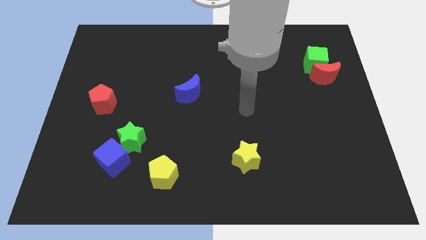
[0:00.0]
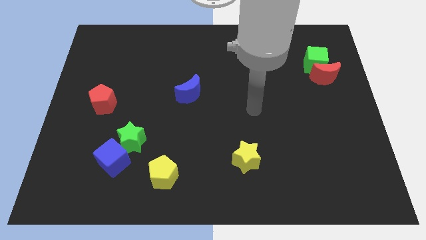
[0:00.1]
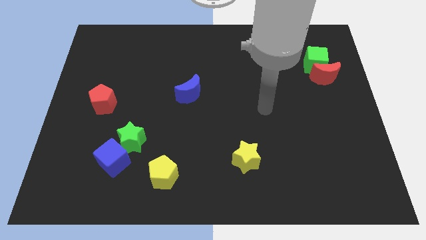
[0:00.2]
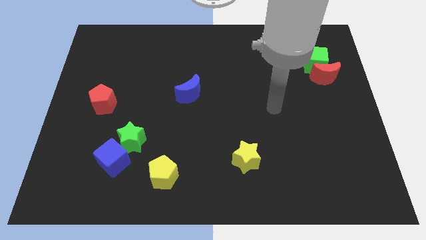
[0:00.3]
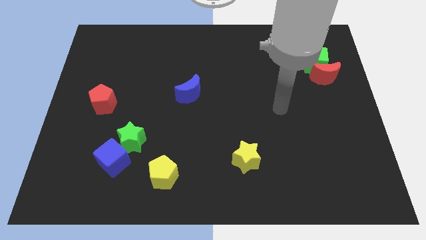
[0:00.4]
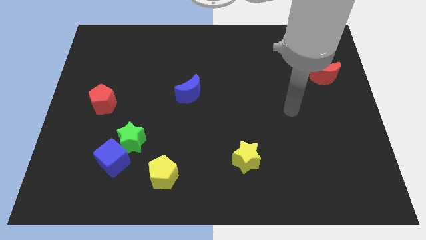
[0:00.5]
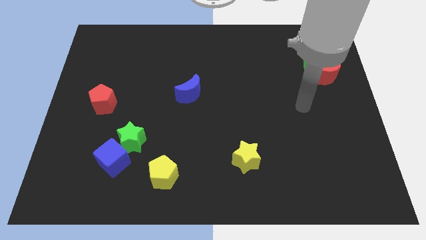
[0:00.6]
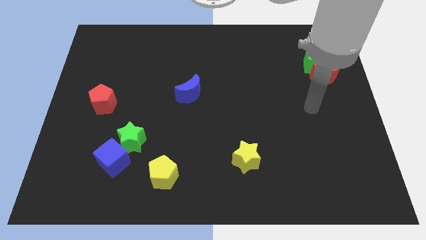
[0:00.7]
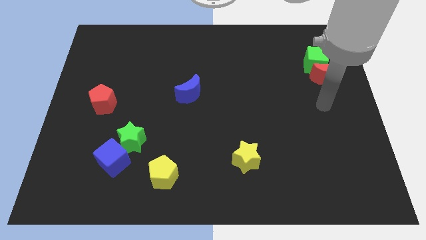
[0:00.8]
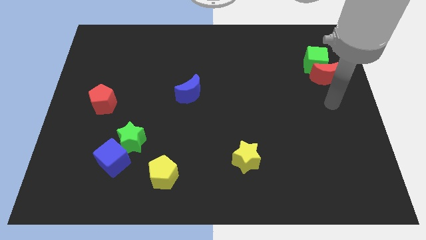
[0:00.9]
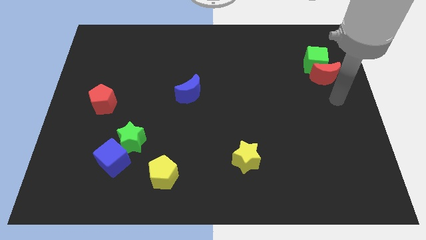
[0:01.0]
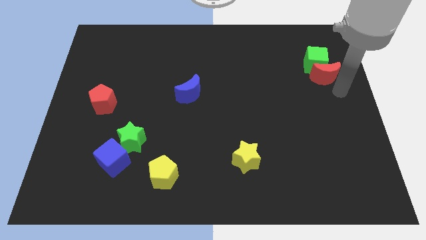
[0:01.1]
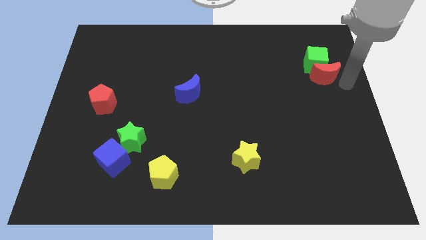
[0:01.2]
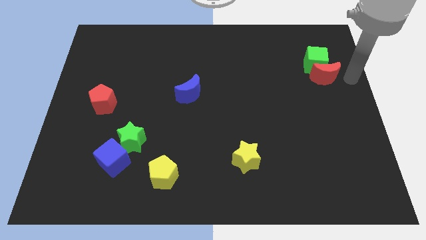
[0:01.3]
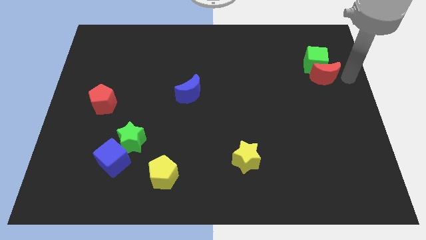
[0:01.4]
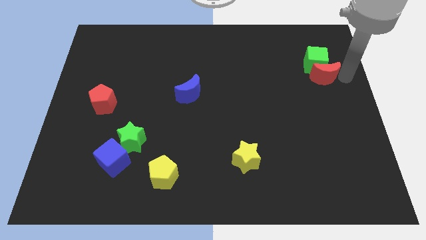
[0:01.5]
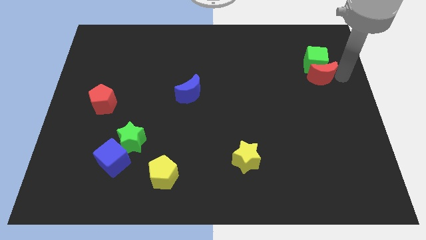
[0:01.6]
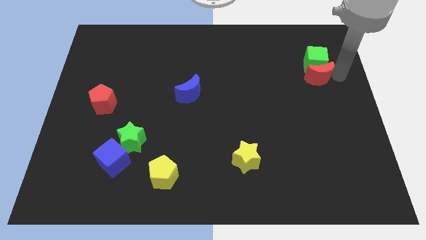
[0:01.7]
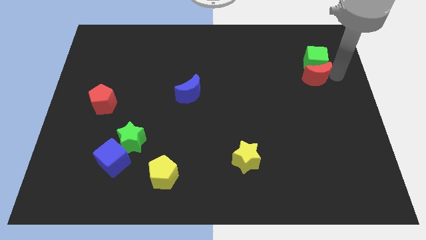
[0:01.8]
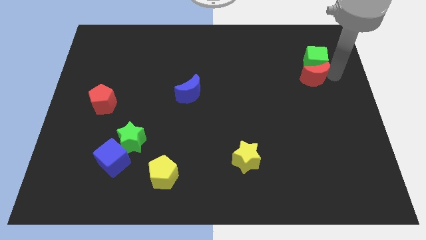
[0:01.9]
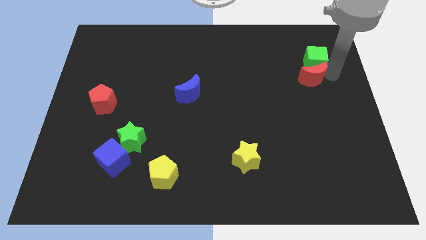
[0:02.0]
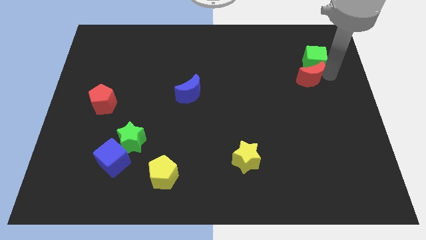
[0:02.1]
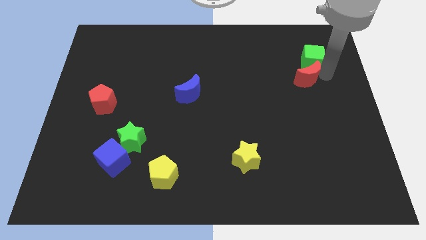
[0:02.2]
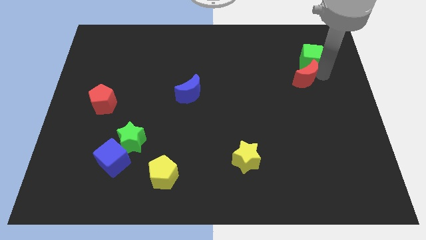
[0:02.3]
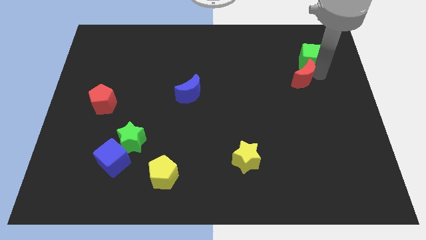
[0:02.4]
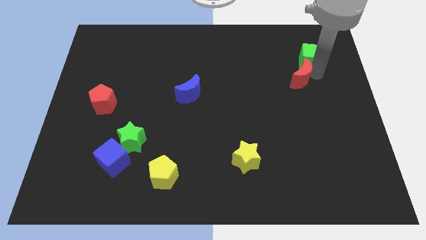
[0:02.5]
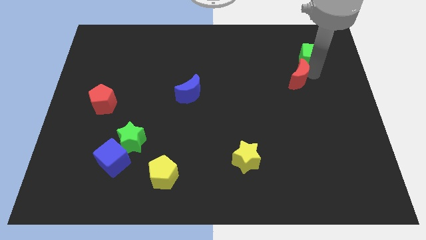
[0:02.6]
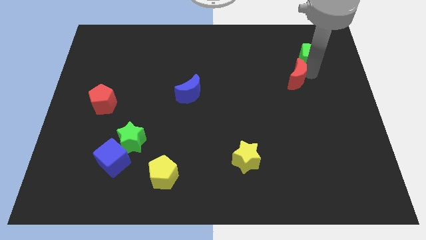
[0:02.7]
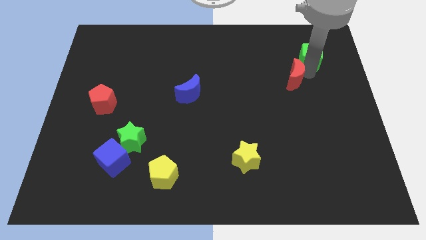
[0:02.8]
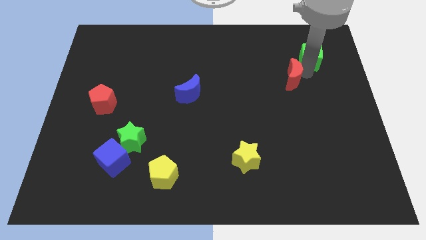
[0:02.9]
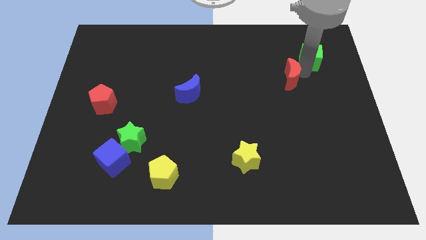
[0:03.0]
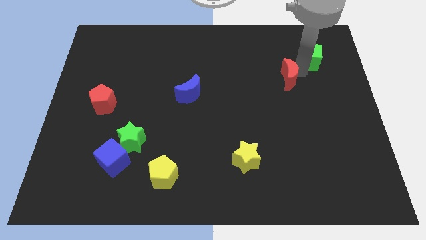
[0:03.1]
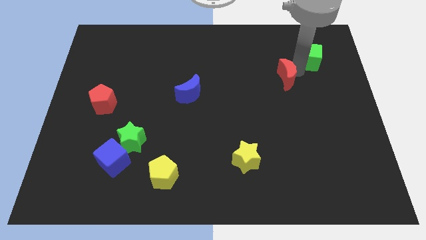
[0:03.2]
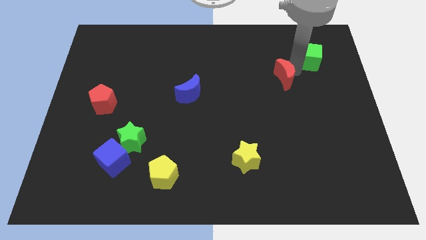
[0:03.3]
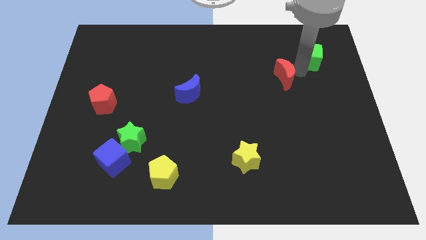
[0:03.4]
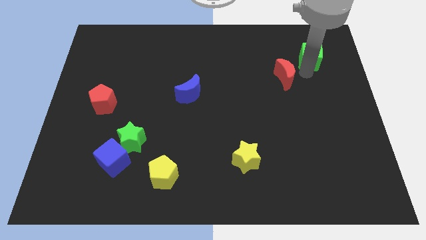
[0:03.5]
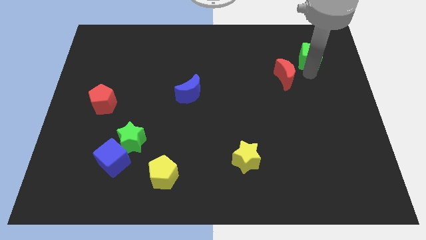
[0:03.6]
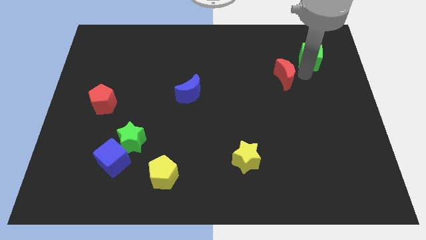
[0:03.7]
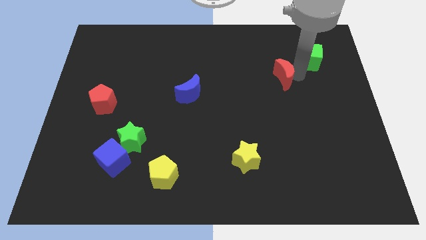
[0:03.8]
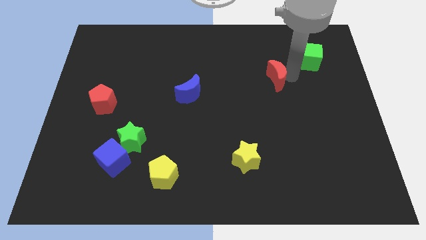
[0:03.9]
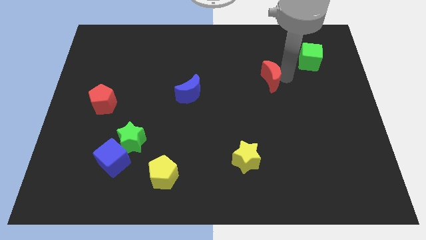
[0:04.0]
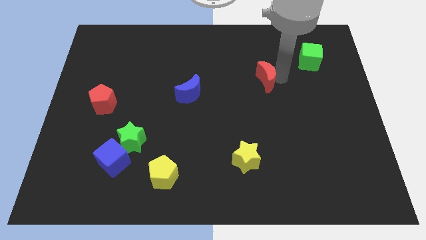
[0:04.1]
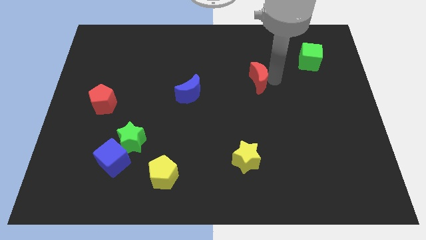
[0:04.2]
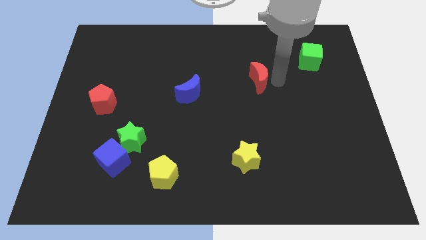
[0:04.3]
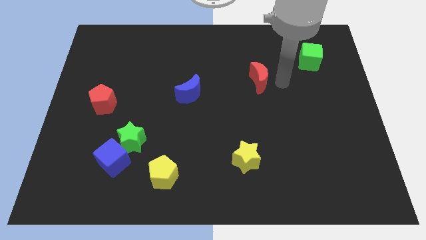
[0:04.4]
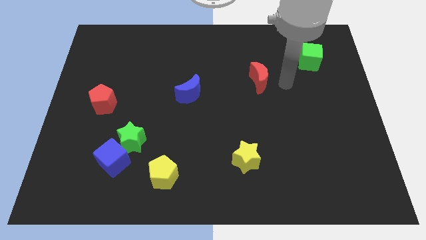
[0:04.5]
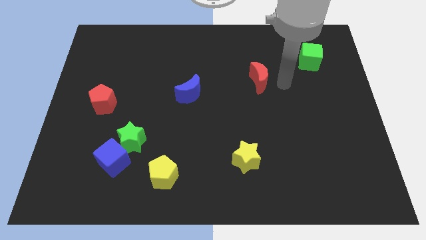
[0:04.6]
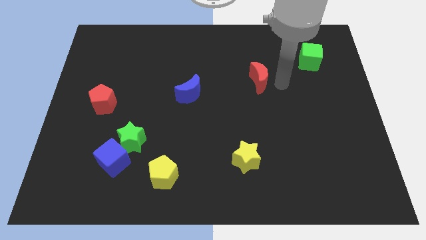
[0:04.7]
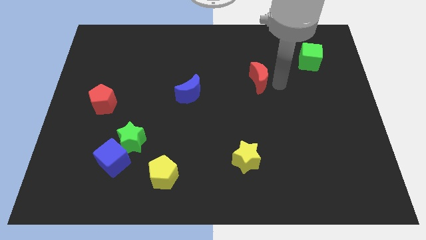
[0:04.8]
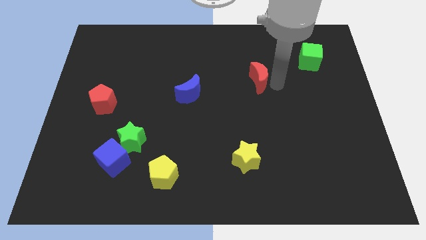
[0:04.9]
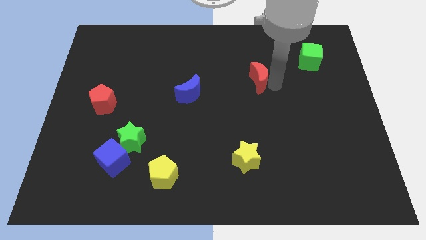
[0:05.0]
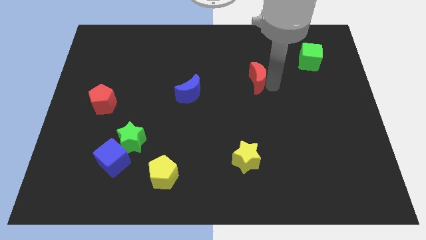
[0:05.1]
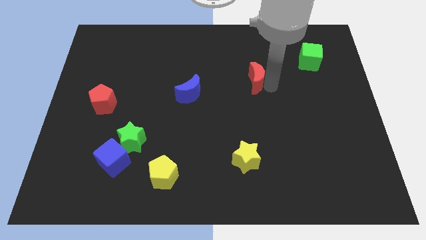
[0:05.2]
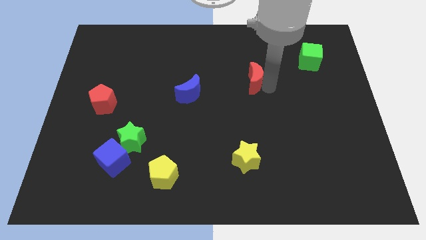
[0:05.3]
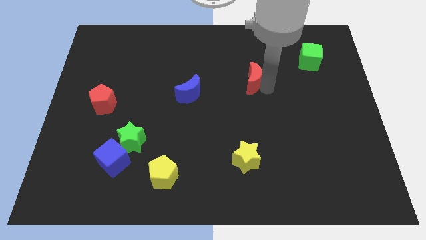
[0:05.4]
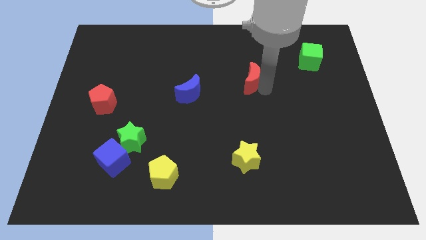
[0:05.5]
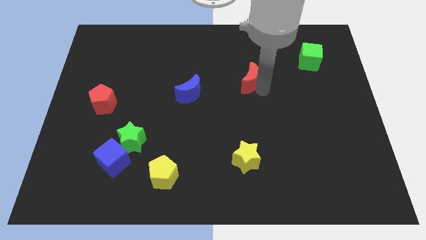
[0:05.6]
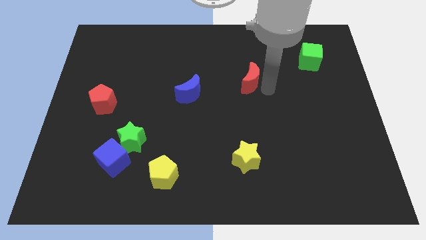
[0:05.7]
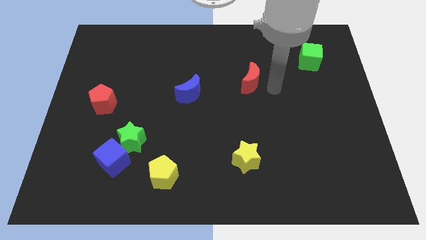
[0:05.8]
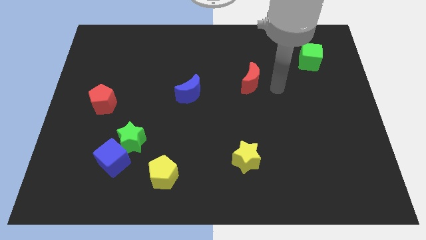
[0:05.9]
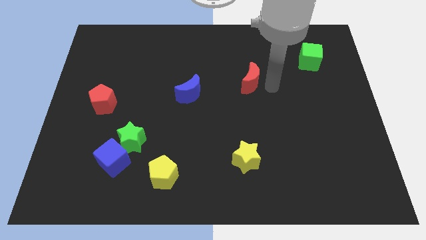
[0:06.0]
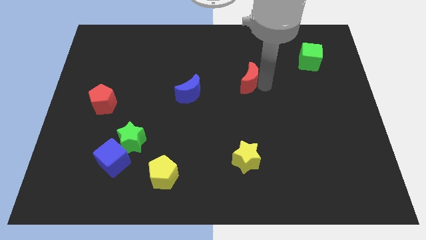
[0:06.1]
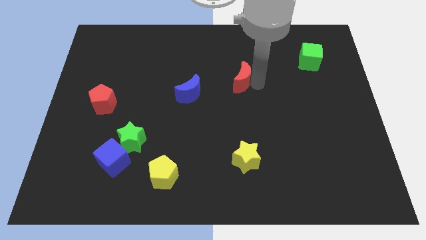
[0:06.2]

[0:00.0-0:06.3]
push the red moon to the left

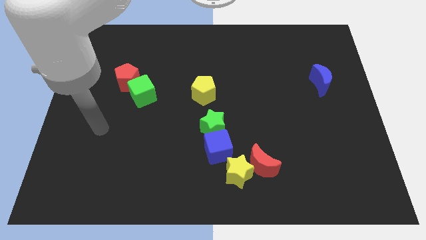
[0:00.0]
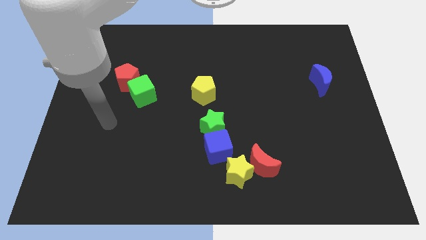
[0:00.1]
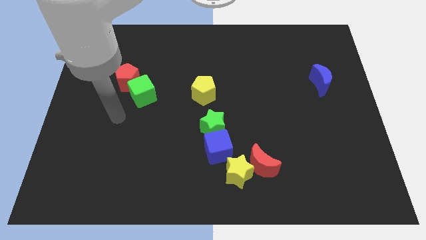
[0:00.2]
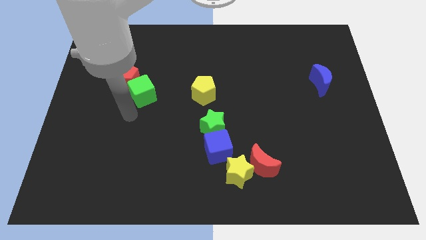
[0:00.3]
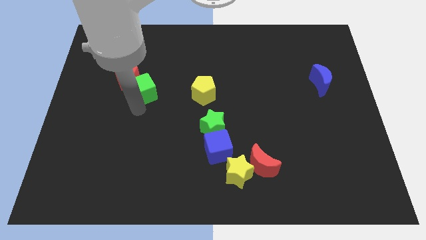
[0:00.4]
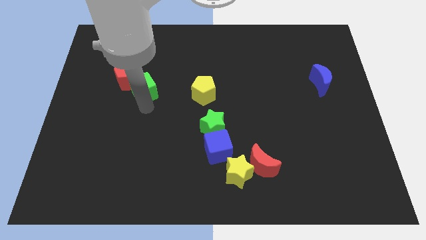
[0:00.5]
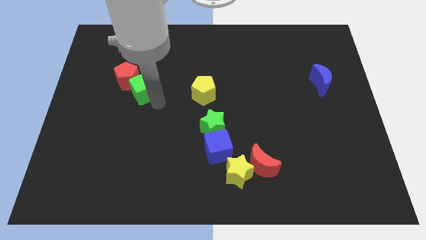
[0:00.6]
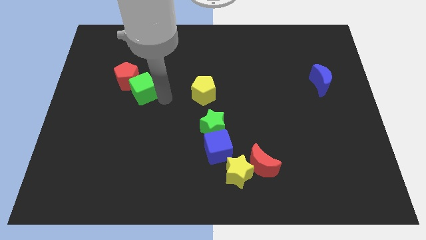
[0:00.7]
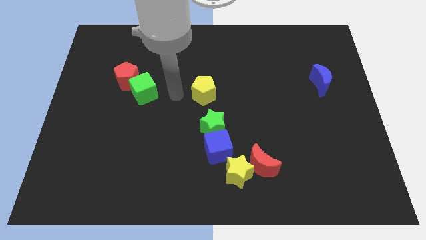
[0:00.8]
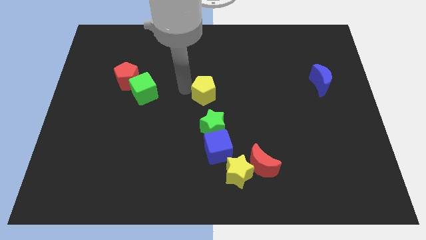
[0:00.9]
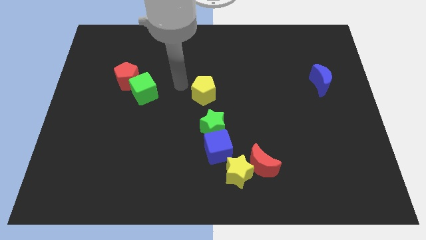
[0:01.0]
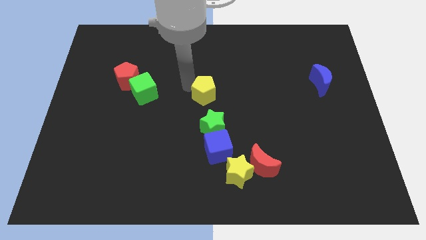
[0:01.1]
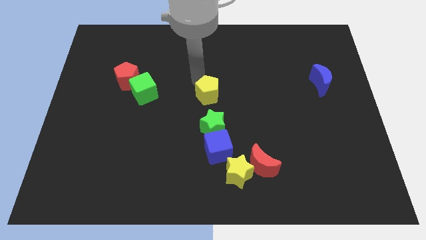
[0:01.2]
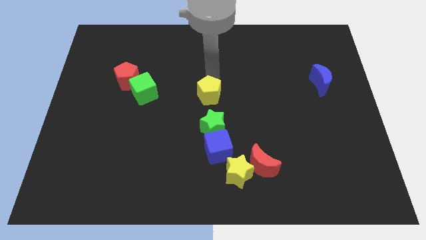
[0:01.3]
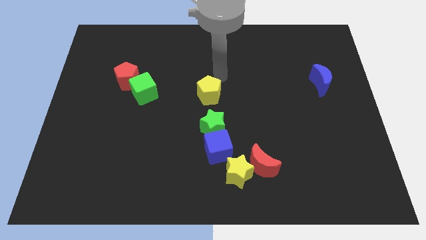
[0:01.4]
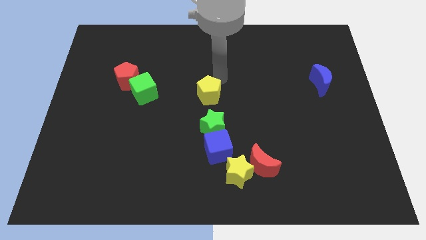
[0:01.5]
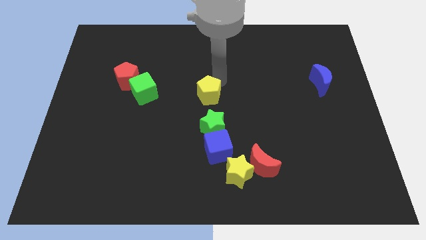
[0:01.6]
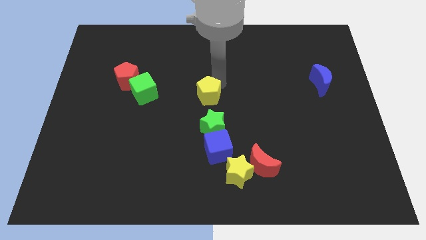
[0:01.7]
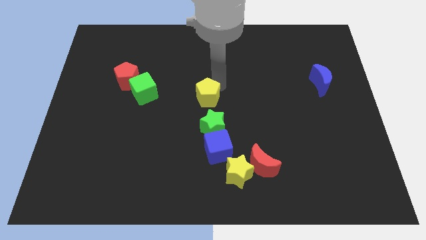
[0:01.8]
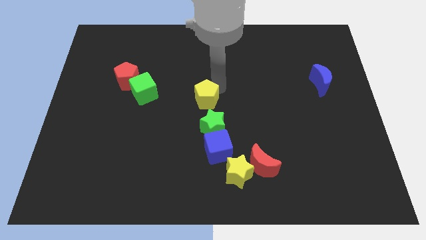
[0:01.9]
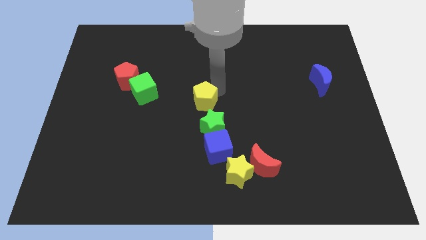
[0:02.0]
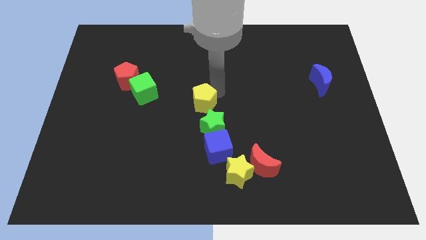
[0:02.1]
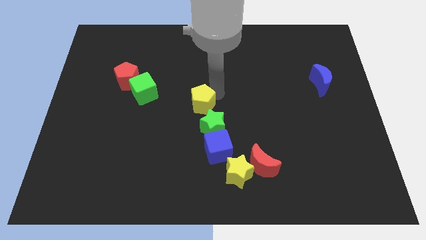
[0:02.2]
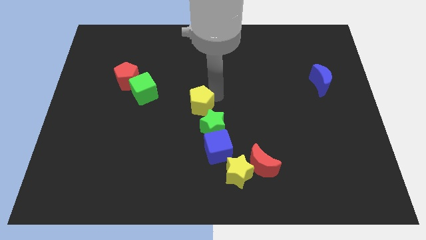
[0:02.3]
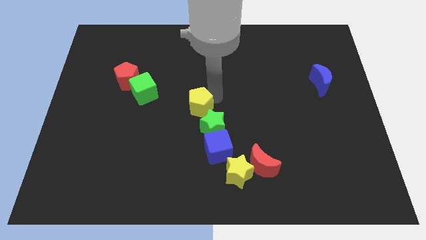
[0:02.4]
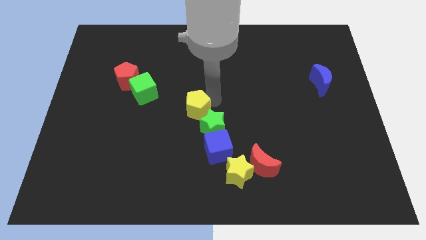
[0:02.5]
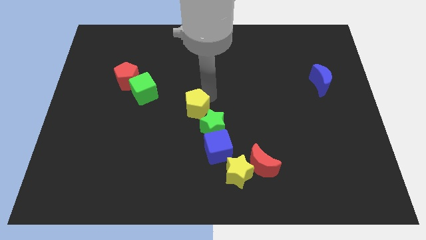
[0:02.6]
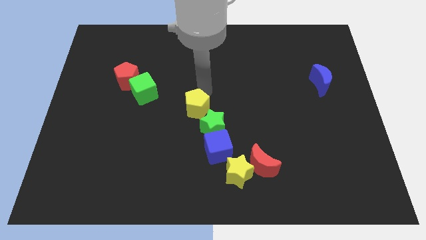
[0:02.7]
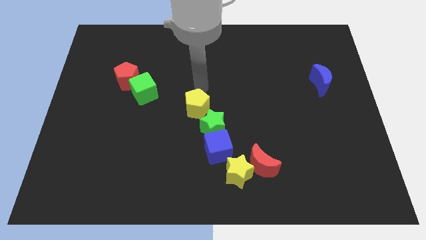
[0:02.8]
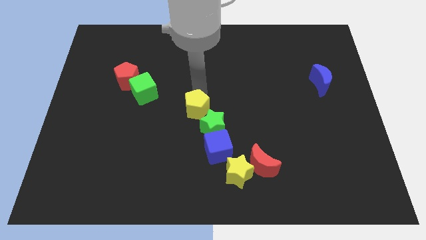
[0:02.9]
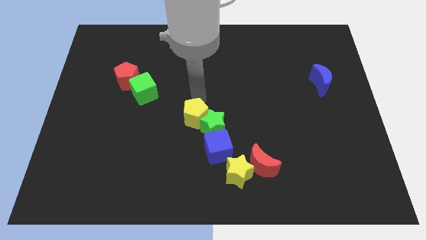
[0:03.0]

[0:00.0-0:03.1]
slightly slide the yellow pentagon down
